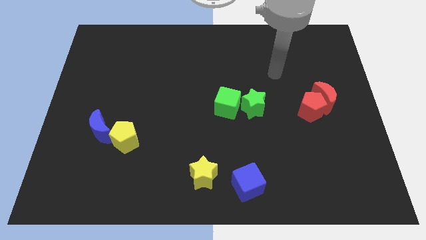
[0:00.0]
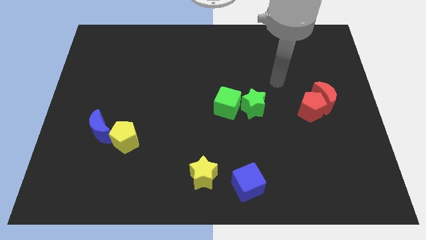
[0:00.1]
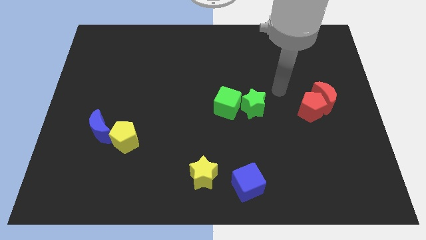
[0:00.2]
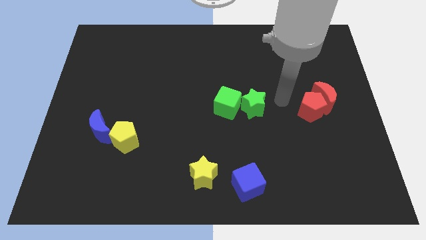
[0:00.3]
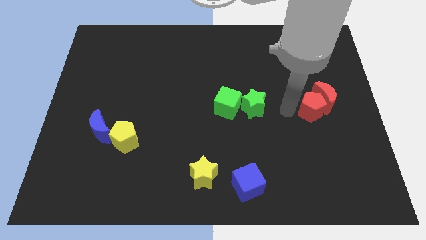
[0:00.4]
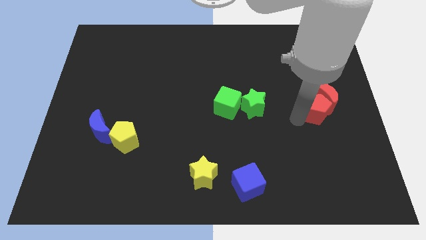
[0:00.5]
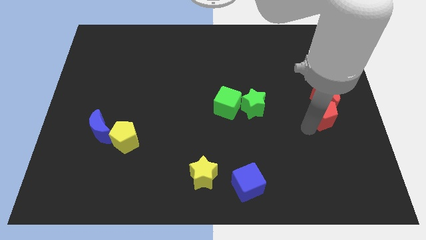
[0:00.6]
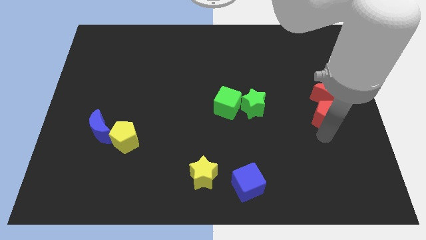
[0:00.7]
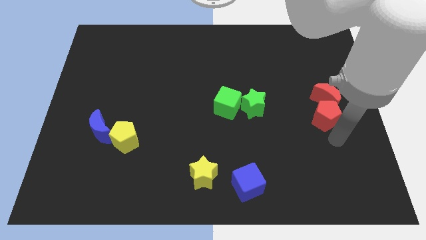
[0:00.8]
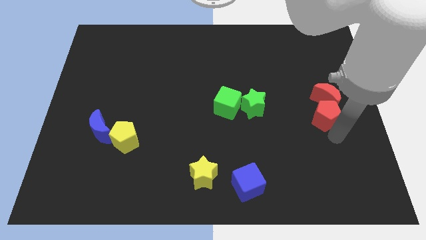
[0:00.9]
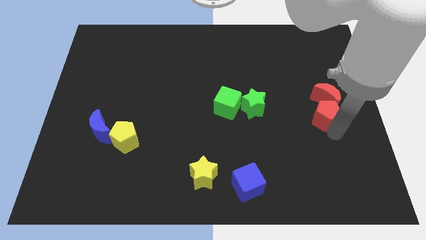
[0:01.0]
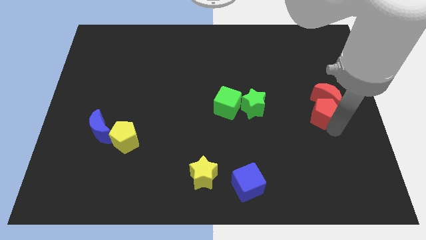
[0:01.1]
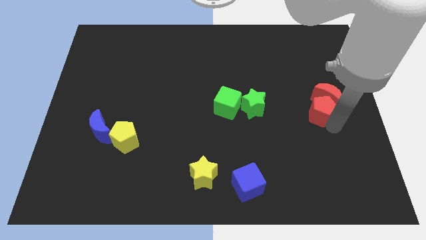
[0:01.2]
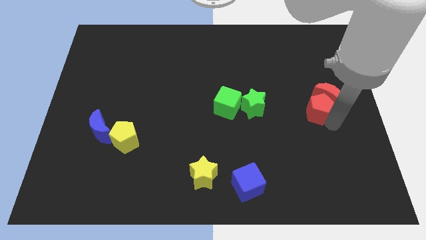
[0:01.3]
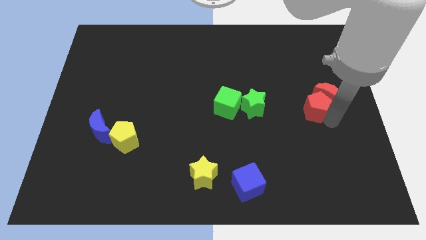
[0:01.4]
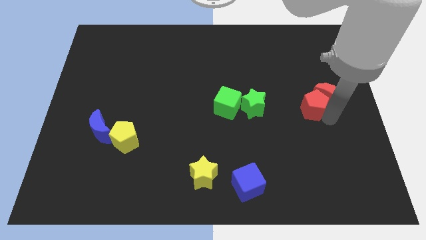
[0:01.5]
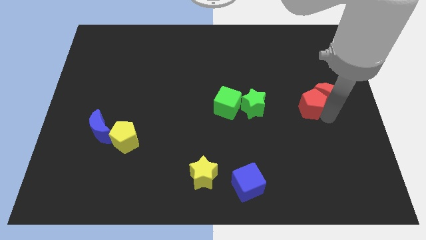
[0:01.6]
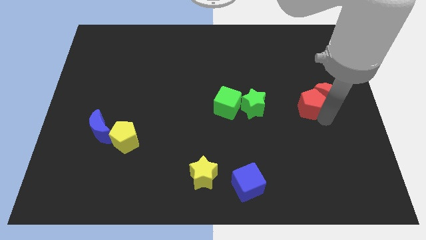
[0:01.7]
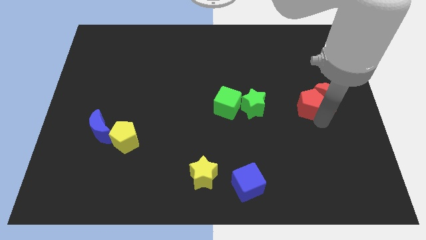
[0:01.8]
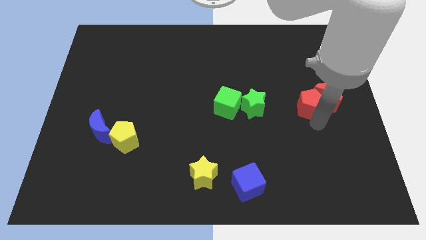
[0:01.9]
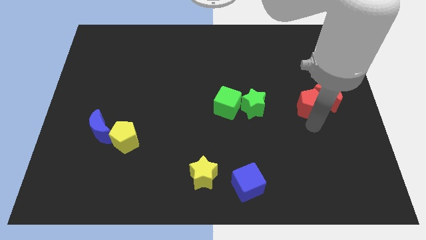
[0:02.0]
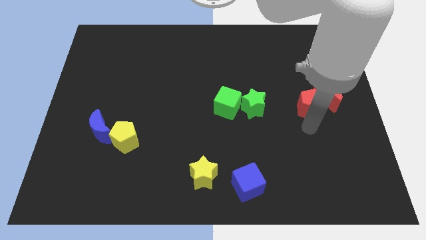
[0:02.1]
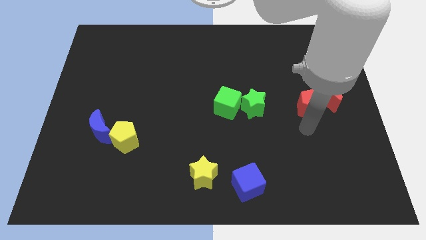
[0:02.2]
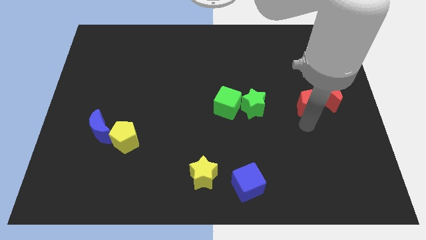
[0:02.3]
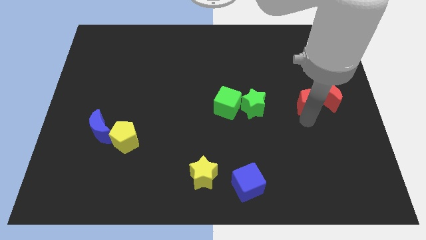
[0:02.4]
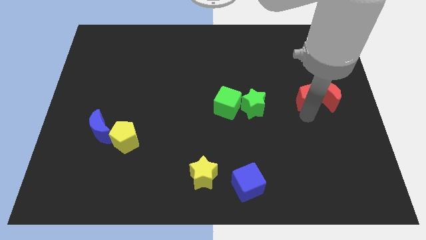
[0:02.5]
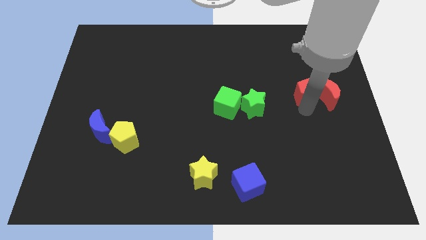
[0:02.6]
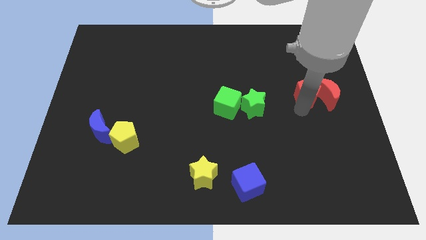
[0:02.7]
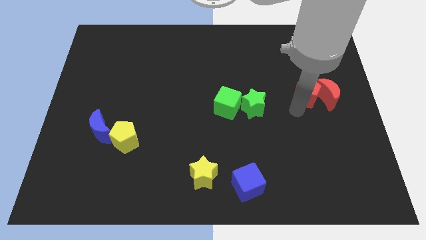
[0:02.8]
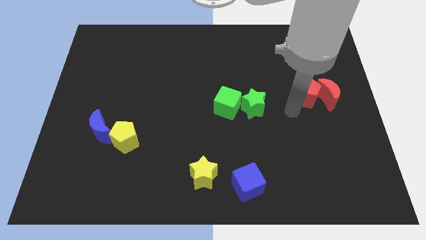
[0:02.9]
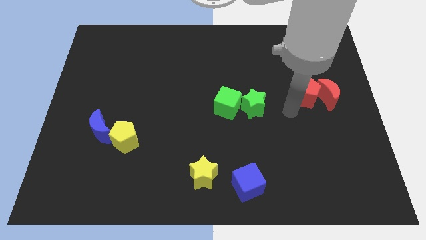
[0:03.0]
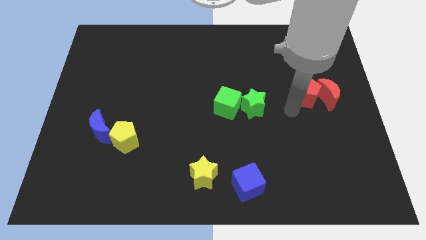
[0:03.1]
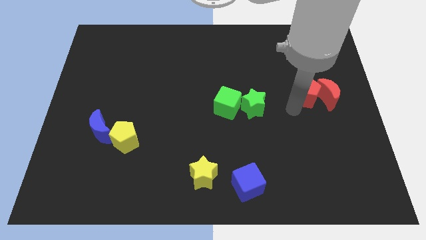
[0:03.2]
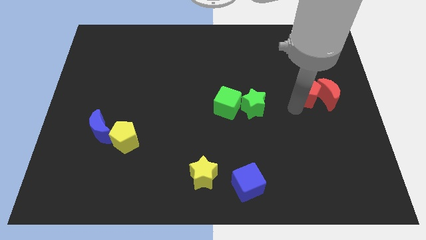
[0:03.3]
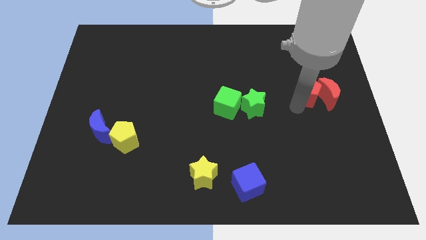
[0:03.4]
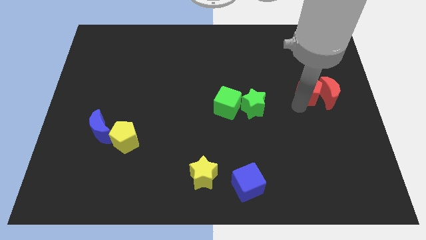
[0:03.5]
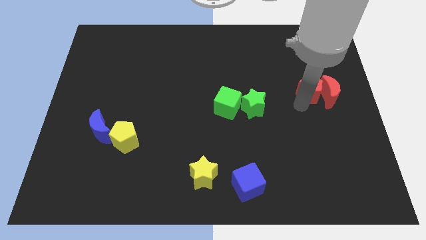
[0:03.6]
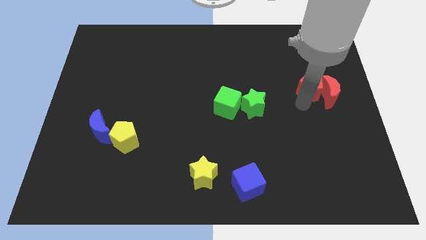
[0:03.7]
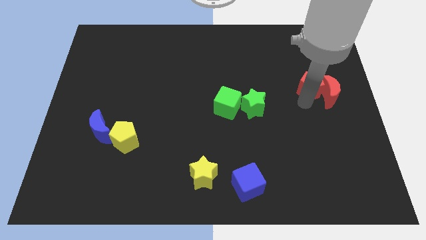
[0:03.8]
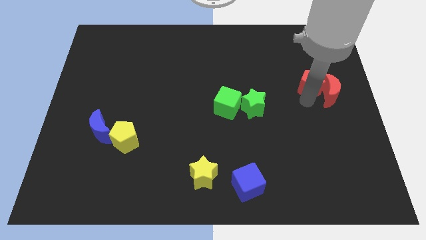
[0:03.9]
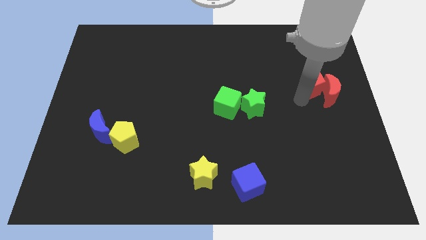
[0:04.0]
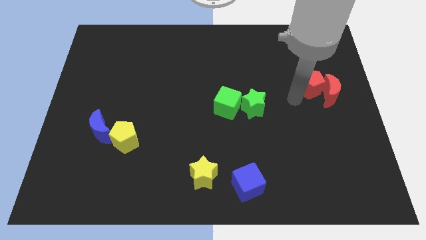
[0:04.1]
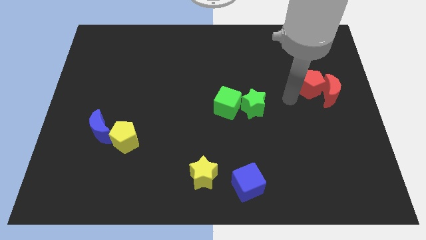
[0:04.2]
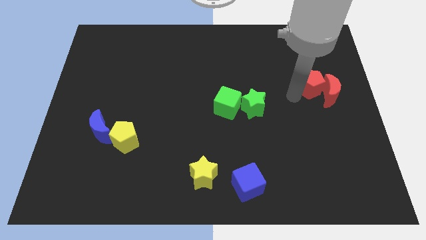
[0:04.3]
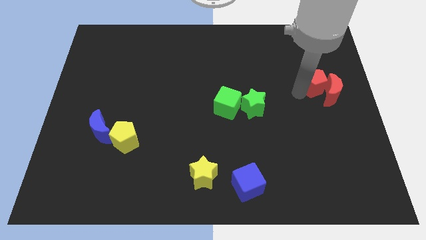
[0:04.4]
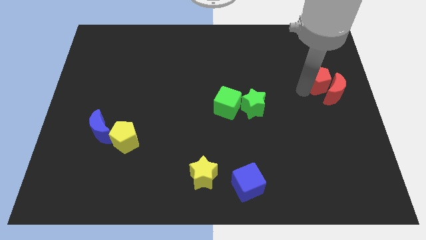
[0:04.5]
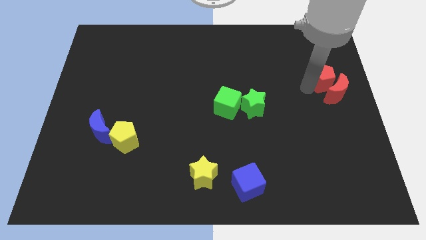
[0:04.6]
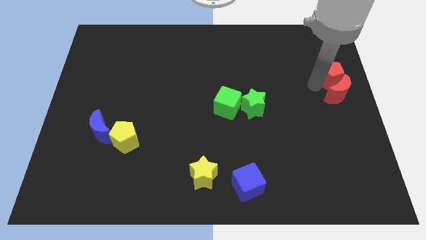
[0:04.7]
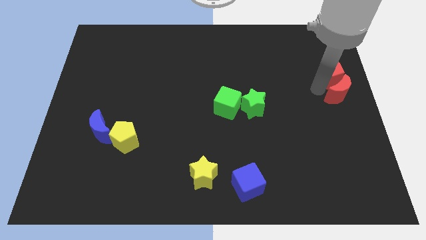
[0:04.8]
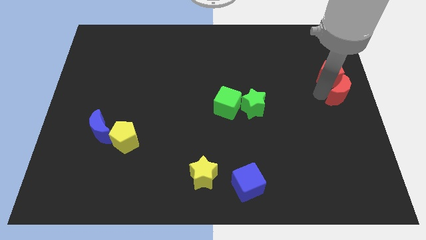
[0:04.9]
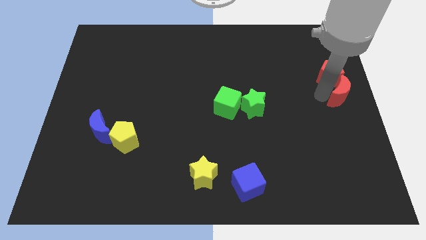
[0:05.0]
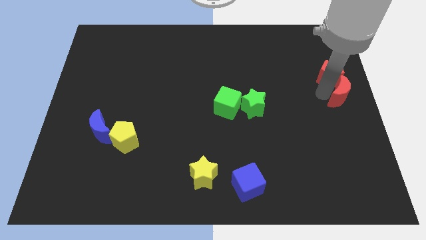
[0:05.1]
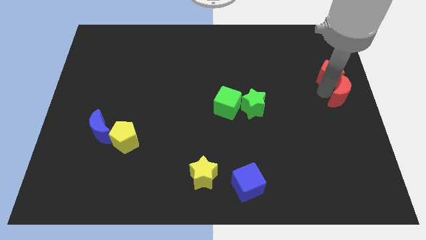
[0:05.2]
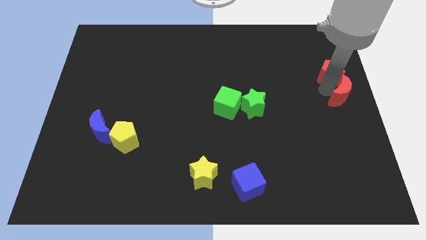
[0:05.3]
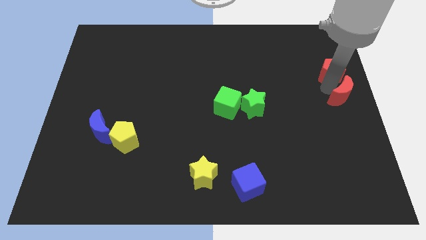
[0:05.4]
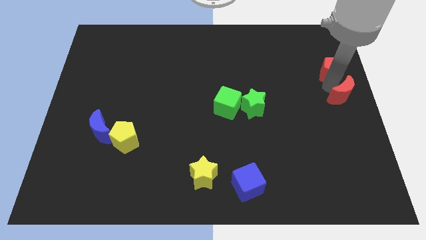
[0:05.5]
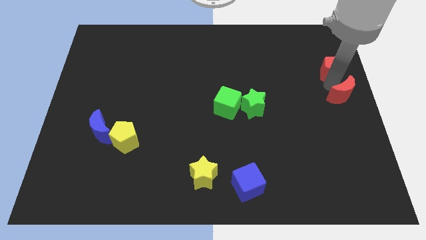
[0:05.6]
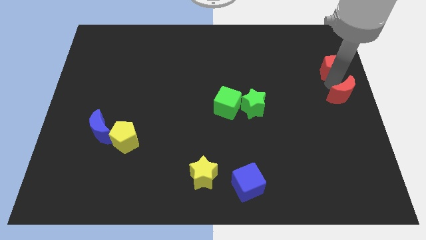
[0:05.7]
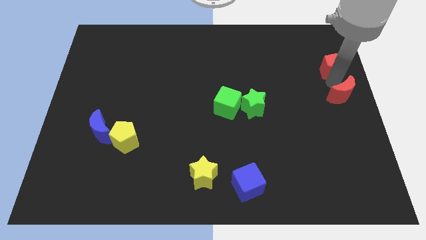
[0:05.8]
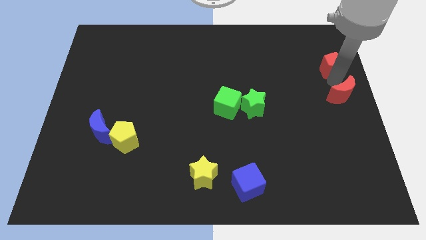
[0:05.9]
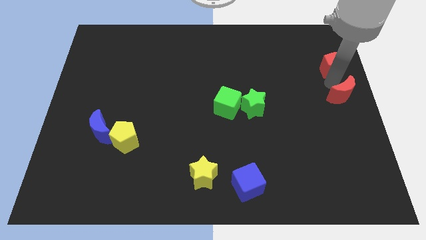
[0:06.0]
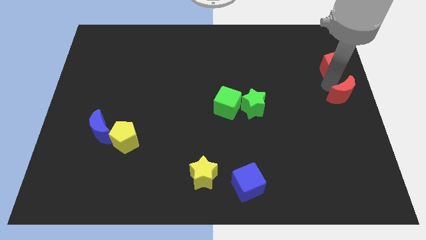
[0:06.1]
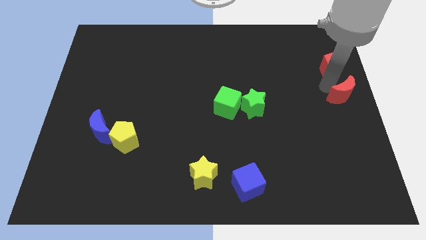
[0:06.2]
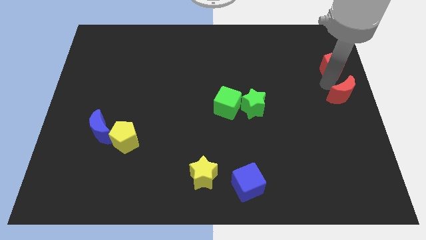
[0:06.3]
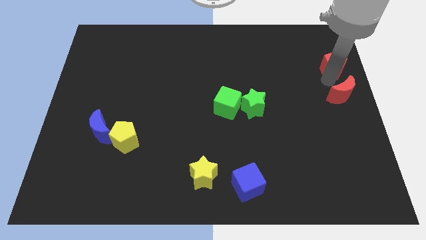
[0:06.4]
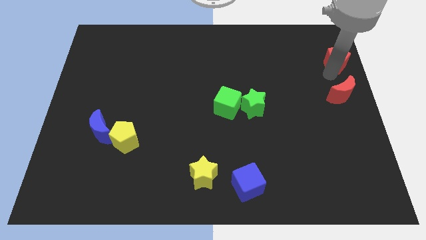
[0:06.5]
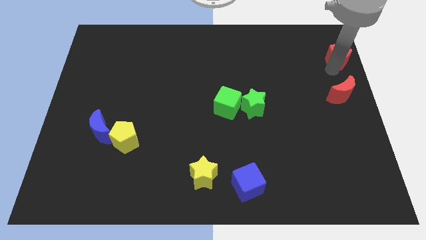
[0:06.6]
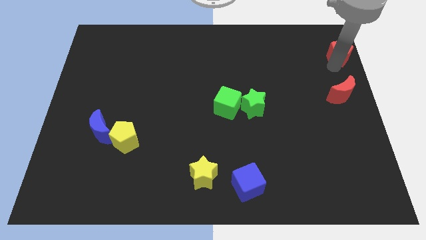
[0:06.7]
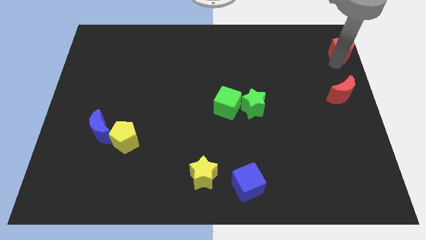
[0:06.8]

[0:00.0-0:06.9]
slide the red pentagon to the upper right corner
